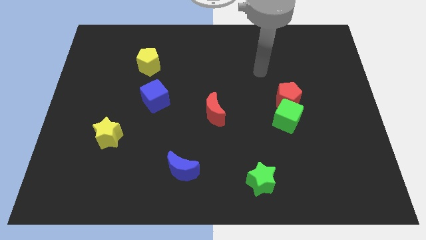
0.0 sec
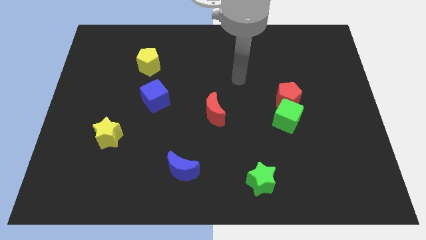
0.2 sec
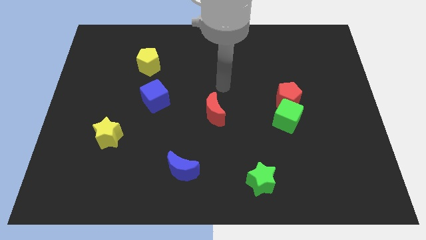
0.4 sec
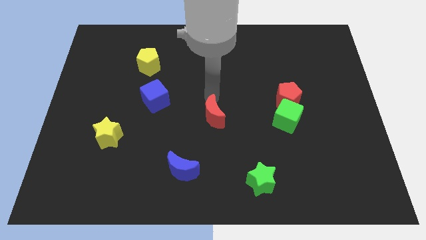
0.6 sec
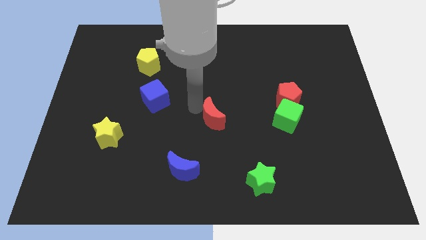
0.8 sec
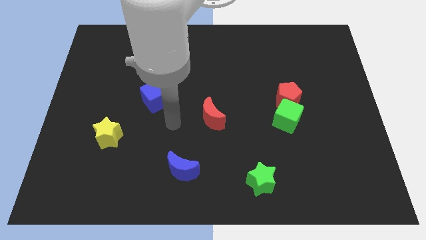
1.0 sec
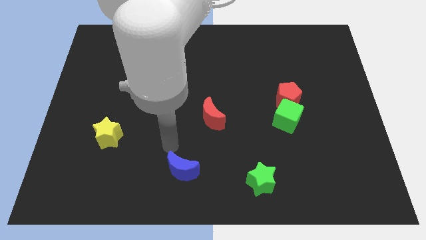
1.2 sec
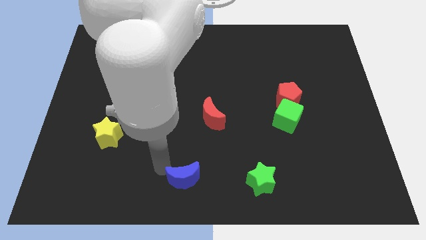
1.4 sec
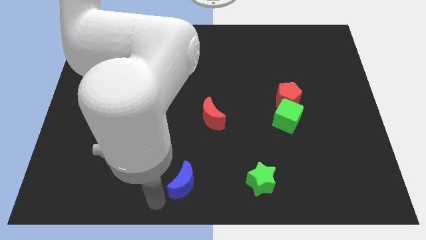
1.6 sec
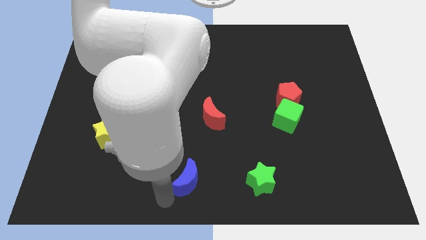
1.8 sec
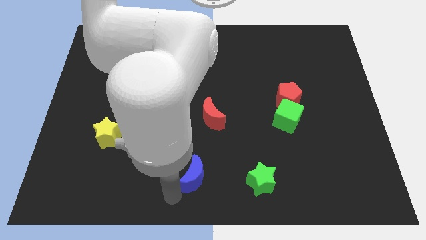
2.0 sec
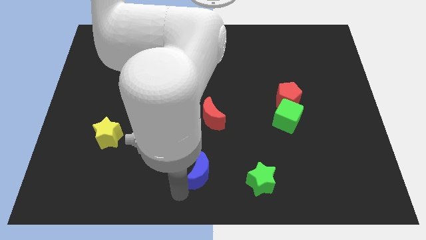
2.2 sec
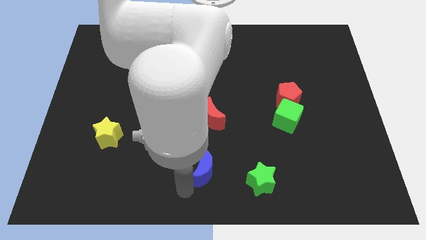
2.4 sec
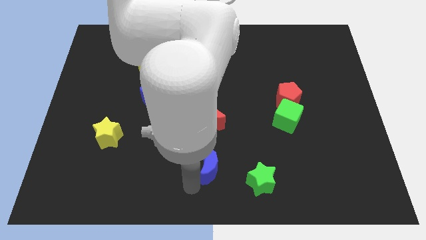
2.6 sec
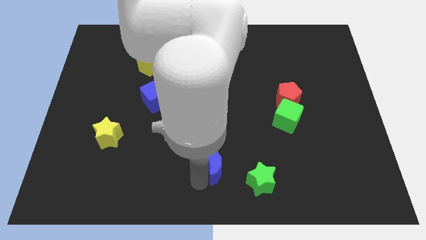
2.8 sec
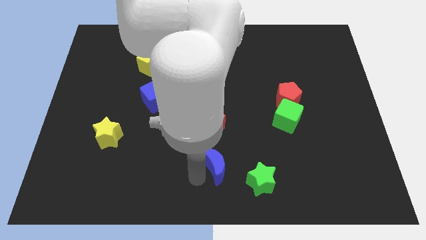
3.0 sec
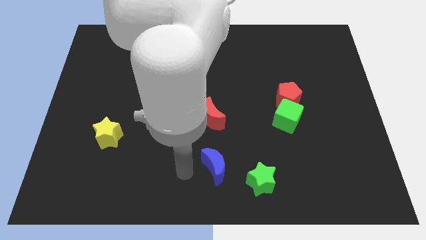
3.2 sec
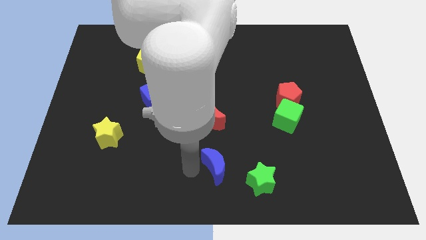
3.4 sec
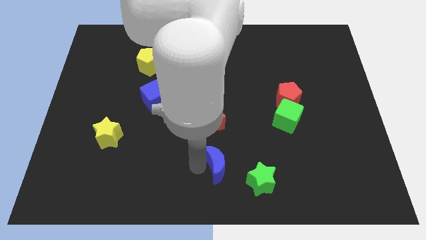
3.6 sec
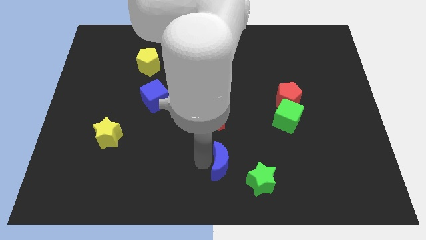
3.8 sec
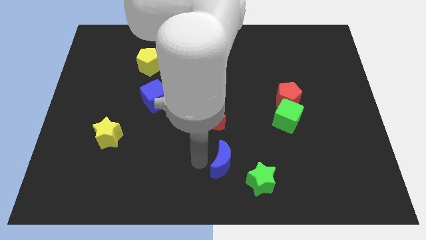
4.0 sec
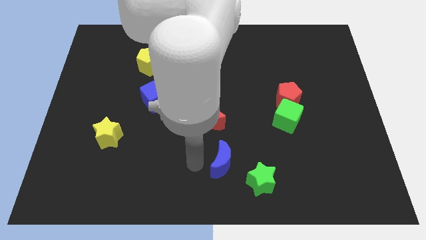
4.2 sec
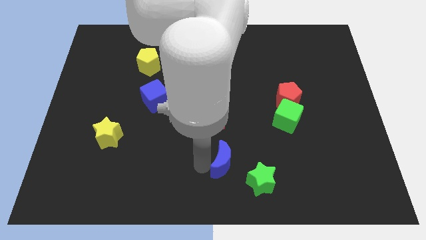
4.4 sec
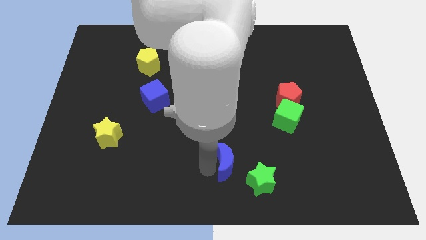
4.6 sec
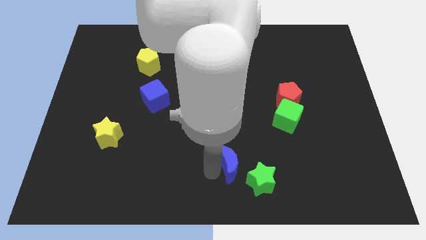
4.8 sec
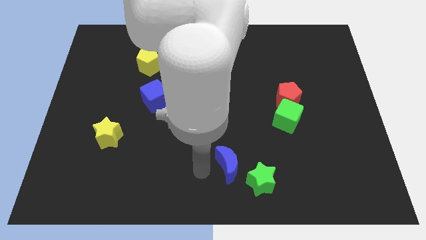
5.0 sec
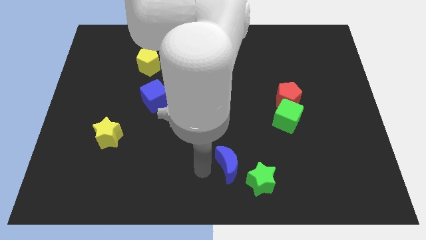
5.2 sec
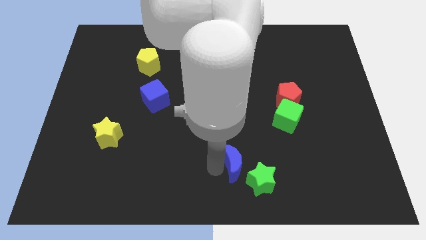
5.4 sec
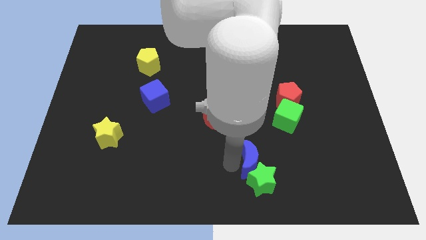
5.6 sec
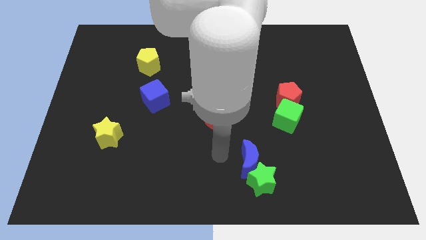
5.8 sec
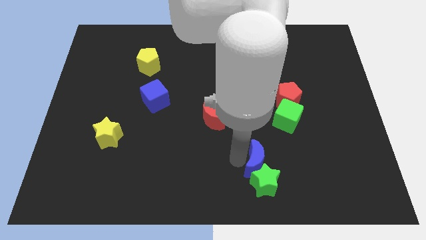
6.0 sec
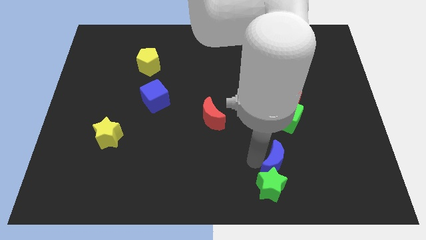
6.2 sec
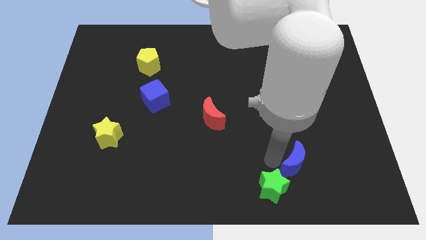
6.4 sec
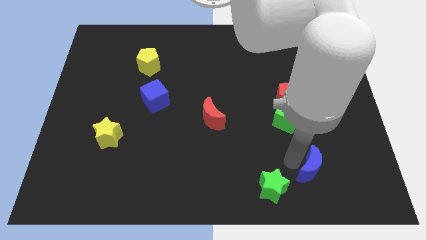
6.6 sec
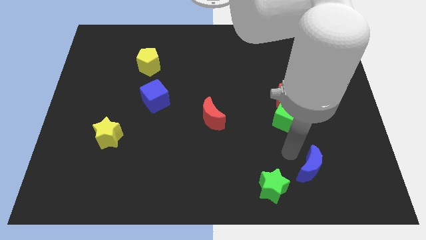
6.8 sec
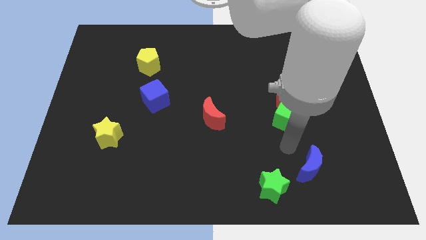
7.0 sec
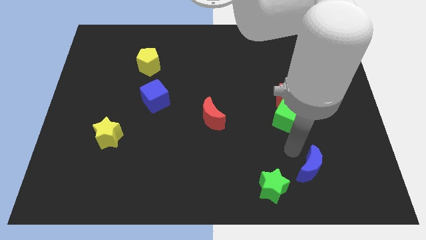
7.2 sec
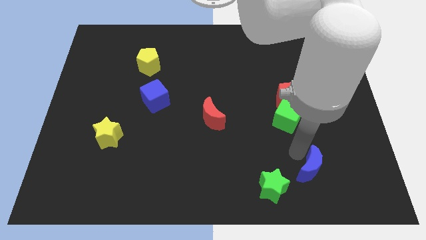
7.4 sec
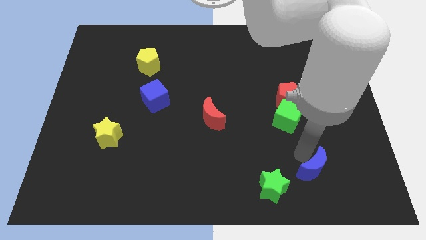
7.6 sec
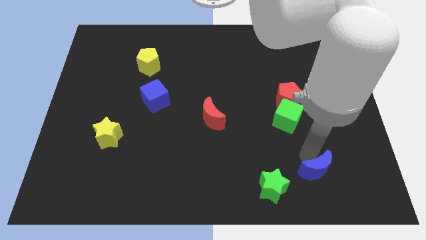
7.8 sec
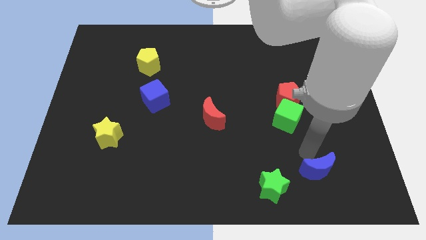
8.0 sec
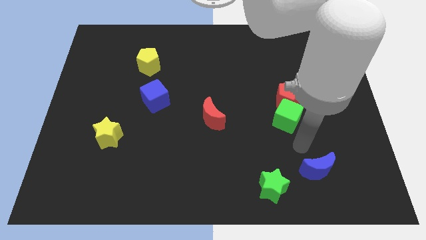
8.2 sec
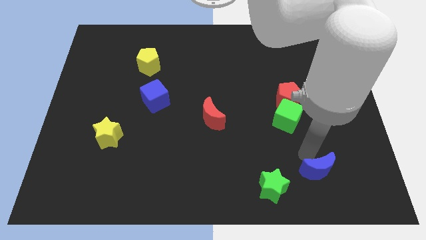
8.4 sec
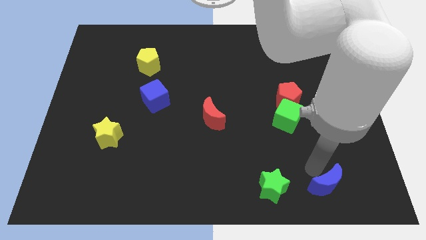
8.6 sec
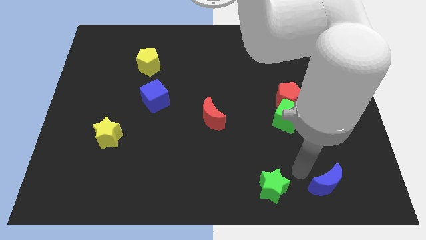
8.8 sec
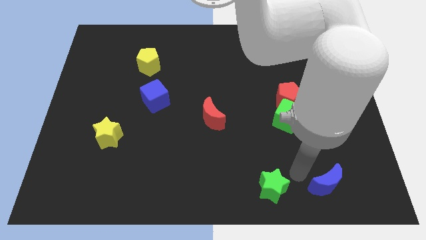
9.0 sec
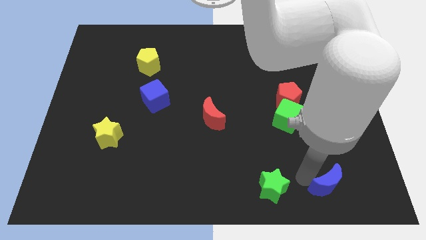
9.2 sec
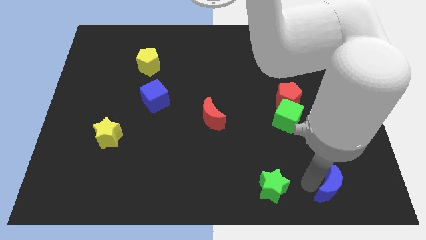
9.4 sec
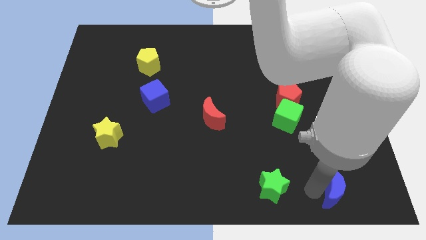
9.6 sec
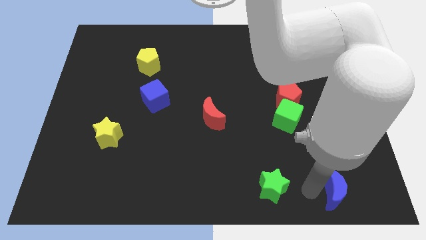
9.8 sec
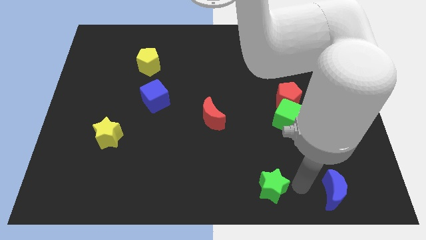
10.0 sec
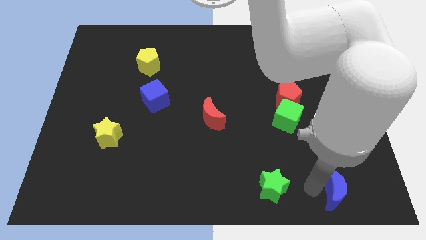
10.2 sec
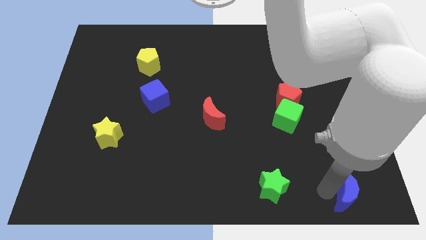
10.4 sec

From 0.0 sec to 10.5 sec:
push the blue moon to the lower right corner

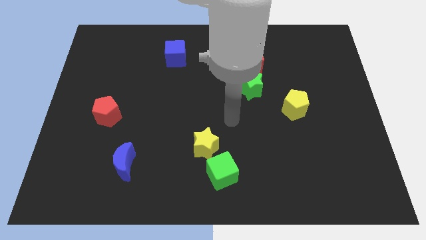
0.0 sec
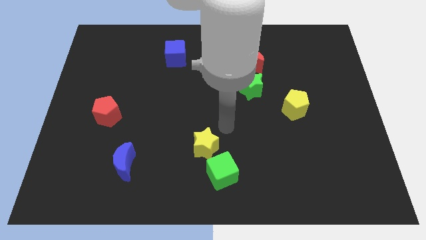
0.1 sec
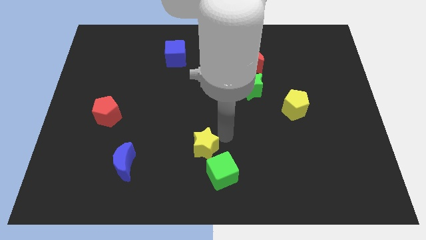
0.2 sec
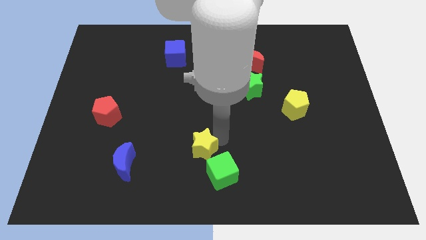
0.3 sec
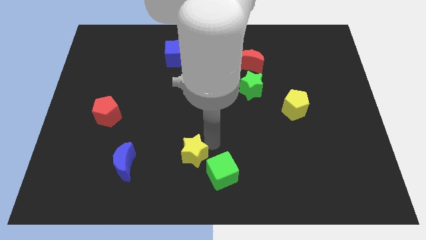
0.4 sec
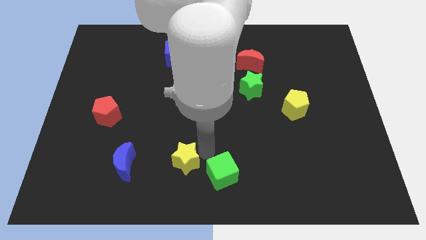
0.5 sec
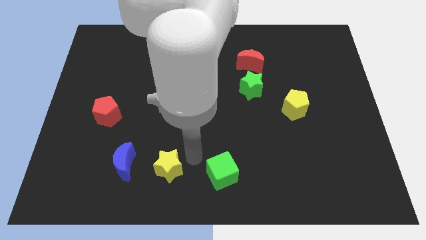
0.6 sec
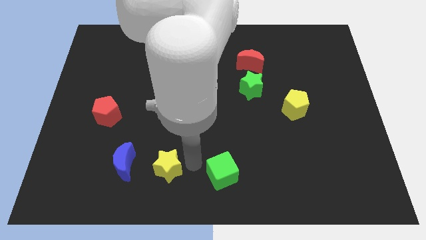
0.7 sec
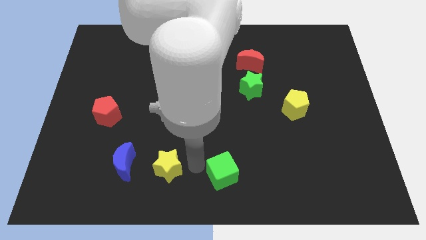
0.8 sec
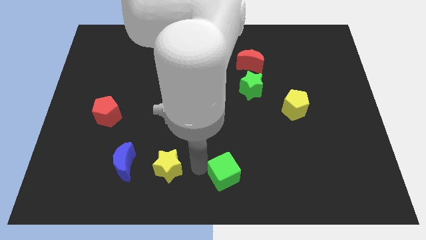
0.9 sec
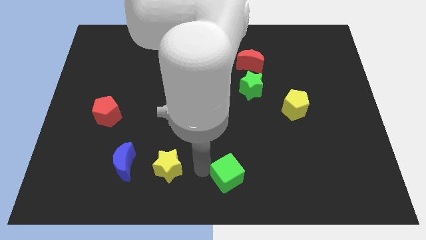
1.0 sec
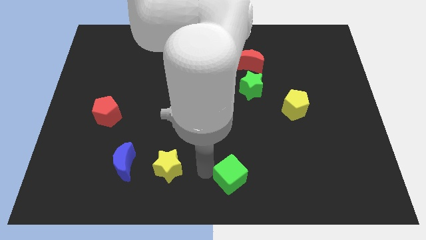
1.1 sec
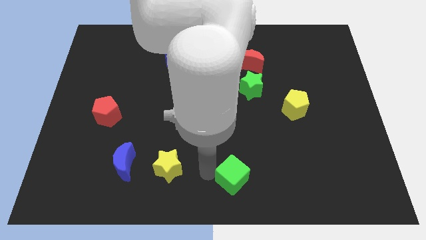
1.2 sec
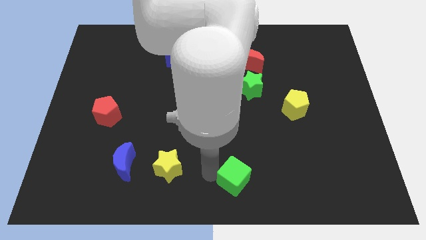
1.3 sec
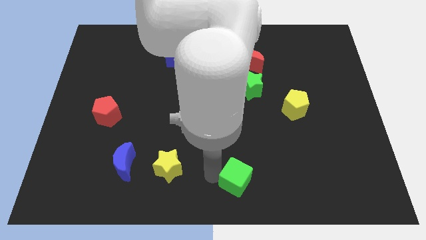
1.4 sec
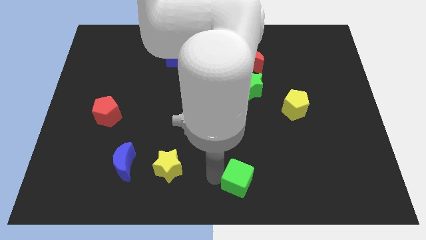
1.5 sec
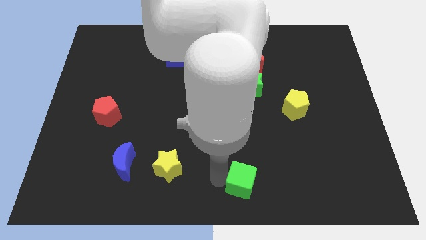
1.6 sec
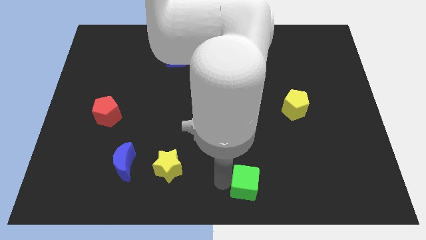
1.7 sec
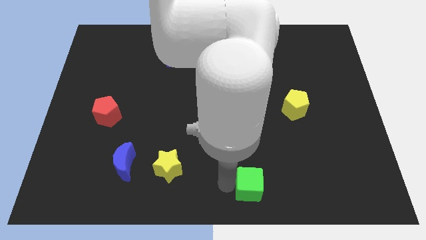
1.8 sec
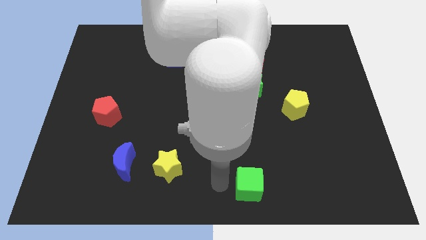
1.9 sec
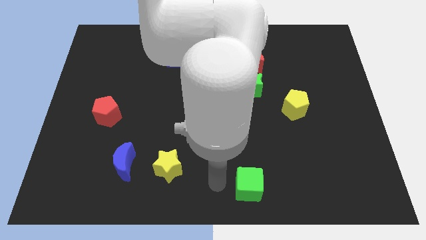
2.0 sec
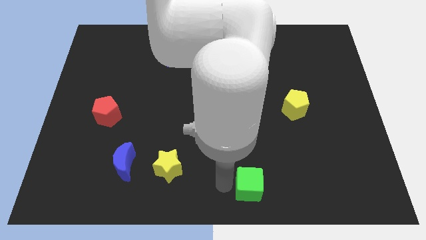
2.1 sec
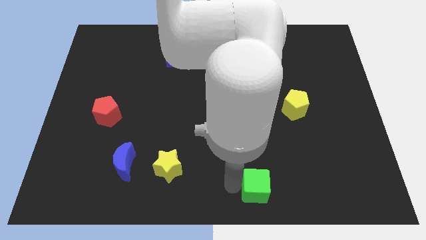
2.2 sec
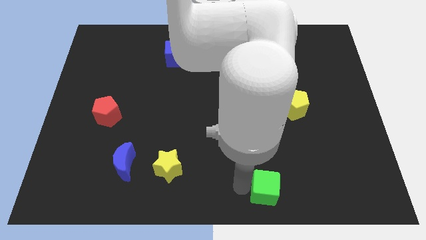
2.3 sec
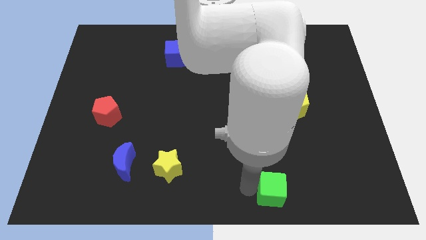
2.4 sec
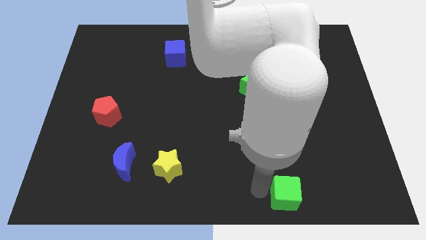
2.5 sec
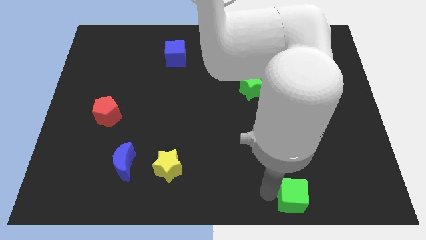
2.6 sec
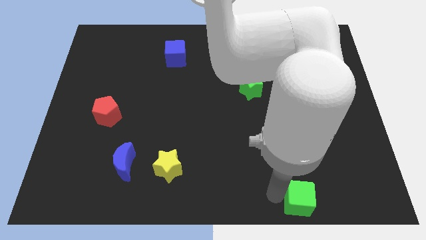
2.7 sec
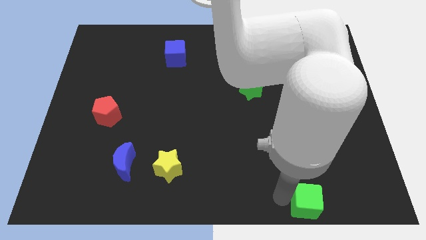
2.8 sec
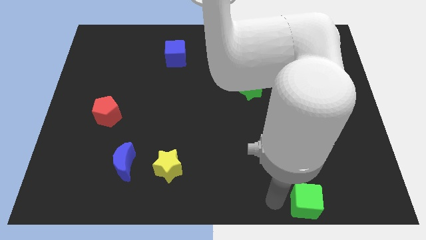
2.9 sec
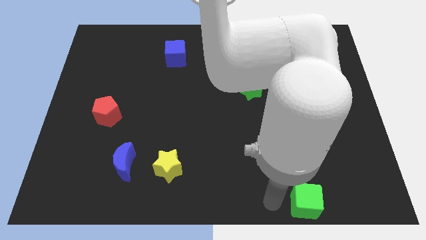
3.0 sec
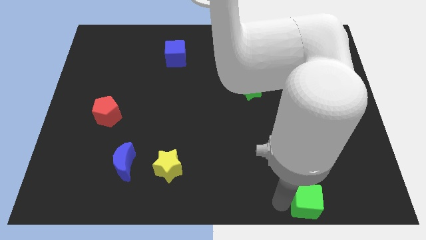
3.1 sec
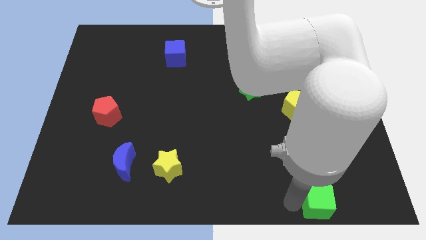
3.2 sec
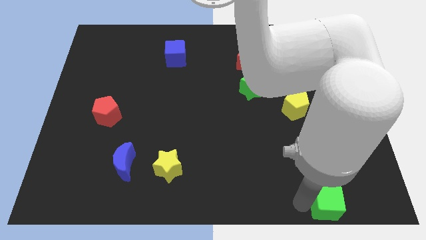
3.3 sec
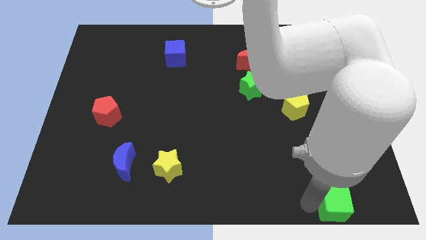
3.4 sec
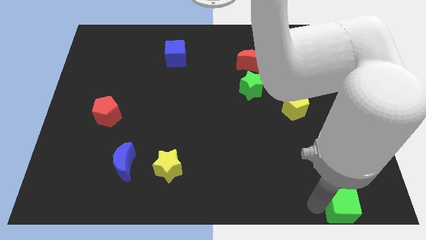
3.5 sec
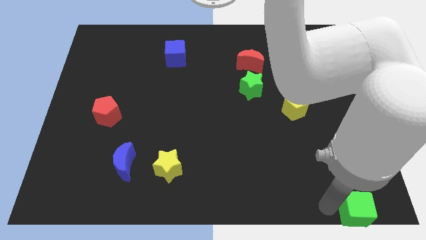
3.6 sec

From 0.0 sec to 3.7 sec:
push the green cube to the bottom right of the board
